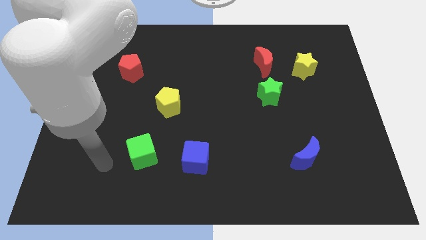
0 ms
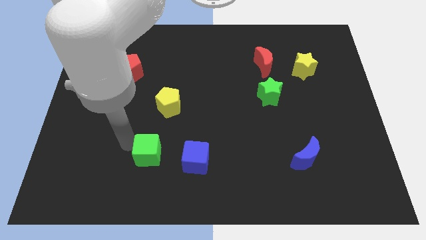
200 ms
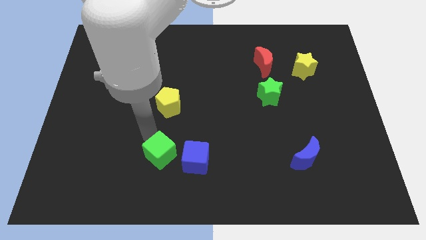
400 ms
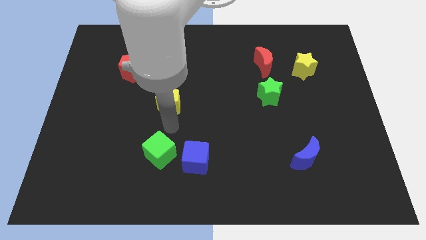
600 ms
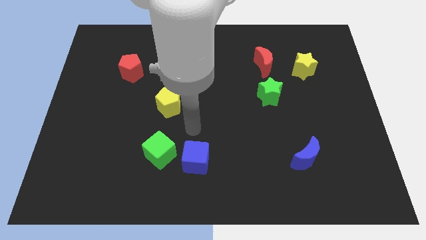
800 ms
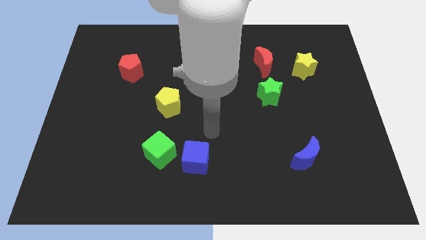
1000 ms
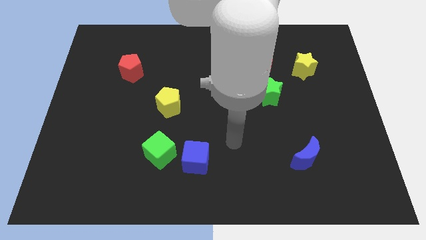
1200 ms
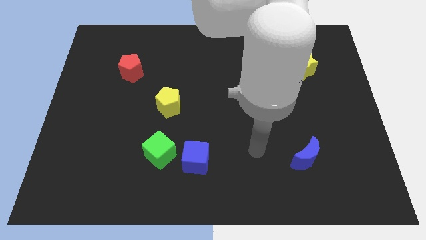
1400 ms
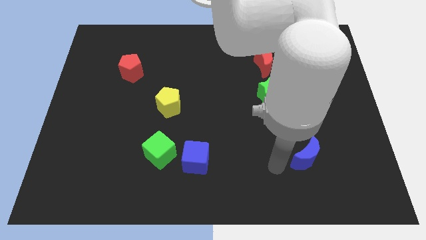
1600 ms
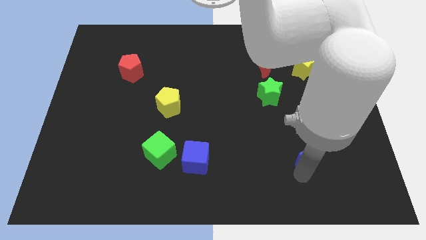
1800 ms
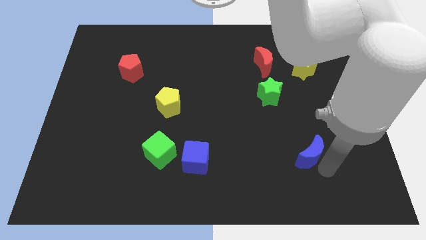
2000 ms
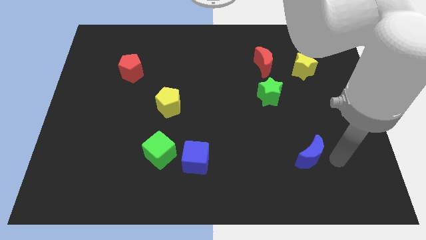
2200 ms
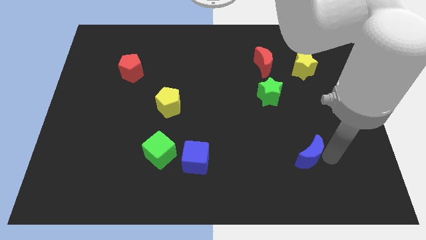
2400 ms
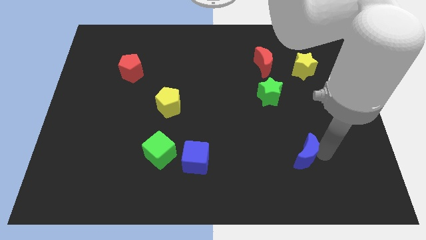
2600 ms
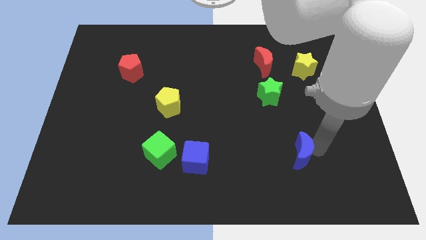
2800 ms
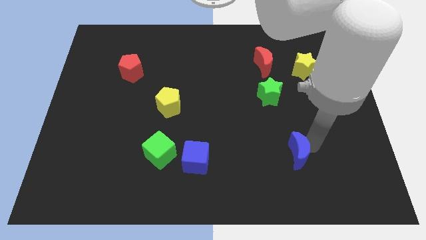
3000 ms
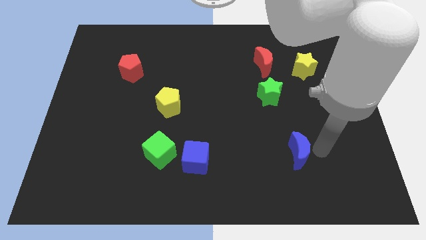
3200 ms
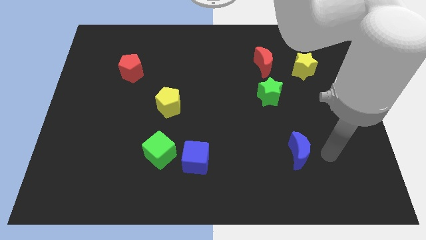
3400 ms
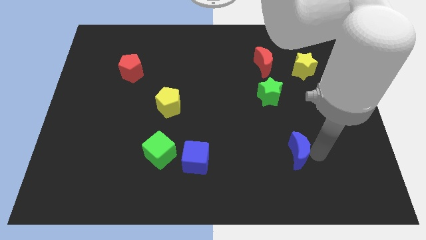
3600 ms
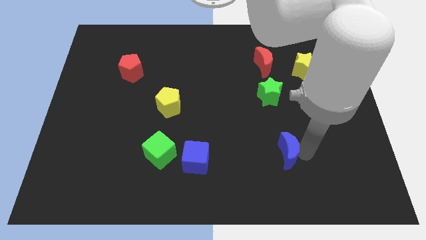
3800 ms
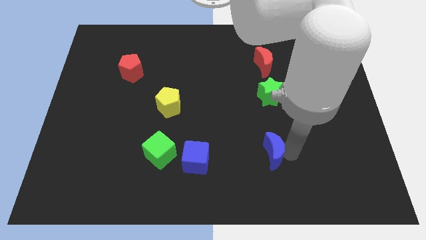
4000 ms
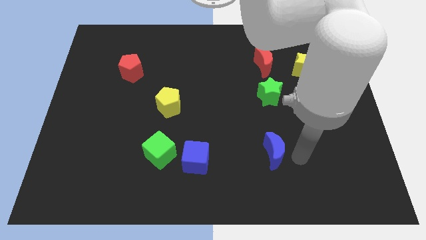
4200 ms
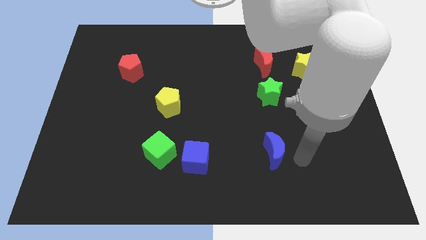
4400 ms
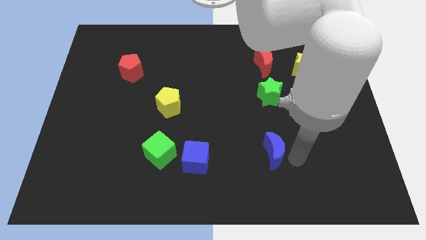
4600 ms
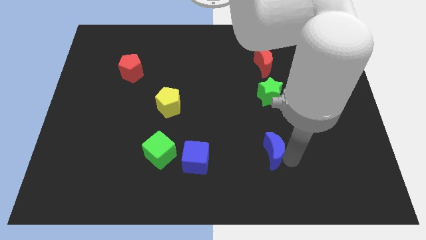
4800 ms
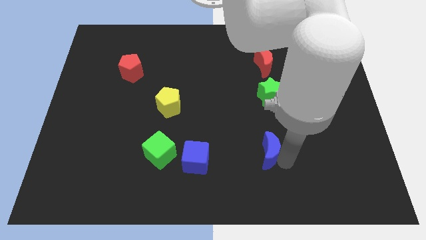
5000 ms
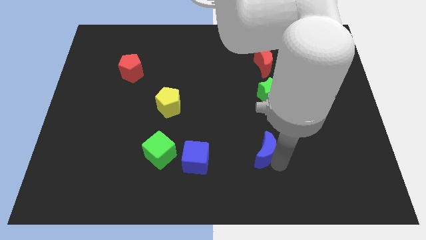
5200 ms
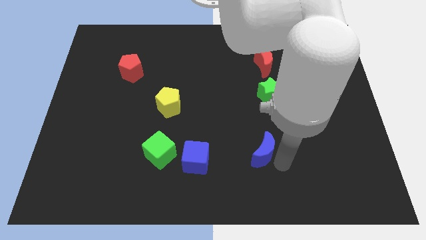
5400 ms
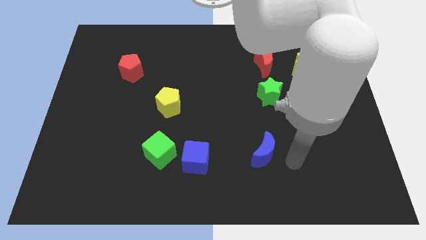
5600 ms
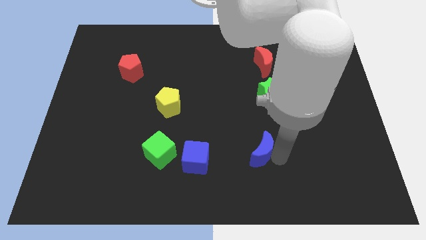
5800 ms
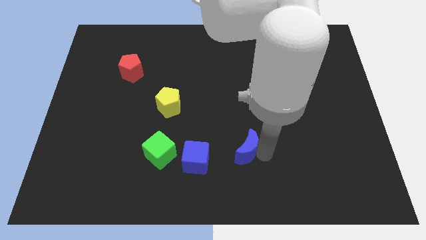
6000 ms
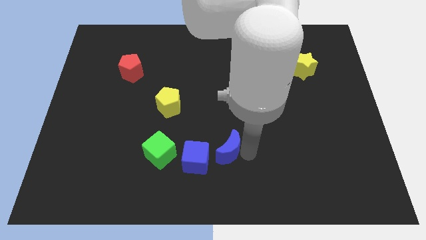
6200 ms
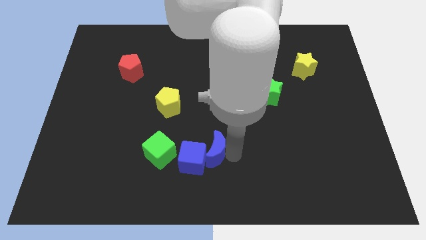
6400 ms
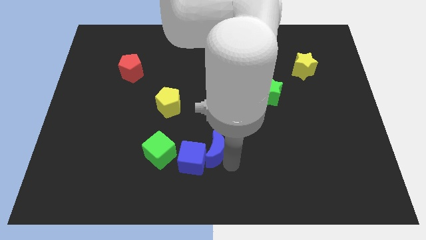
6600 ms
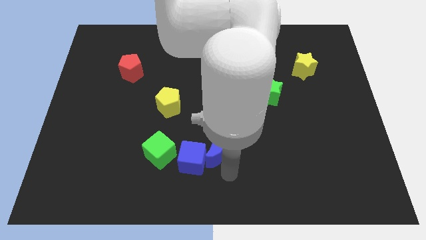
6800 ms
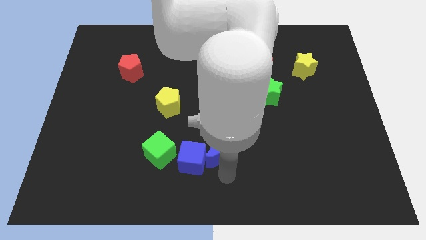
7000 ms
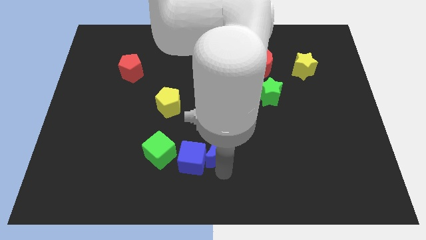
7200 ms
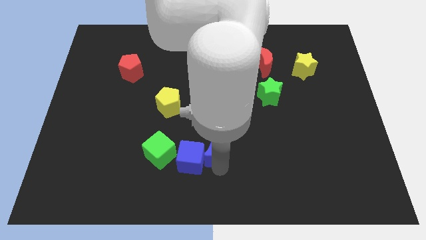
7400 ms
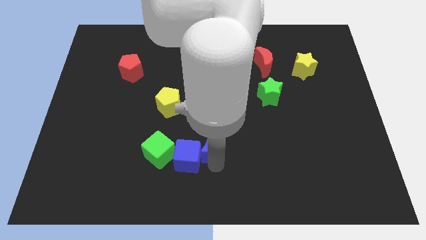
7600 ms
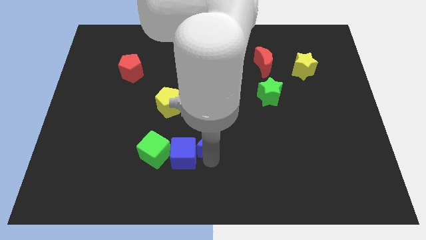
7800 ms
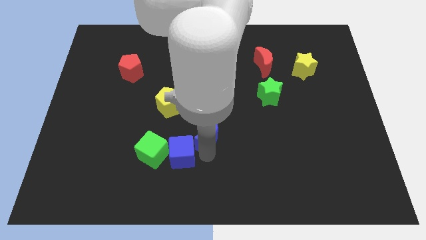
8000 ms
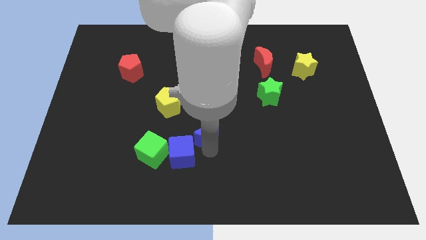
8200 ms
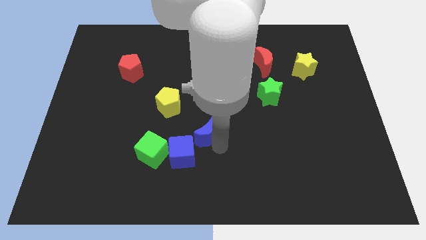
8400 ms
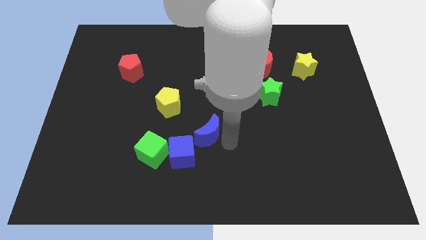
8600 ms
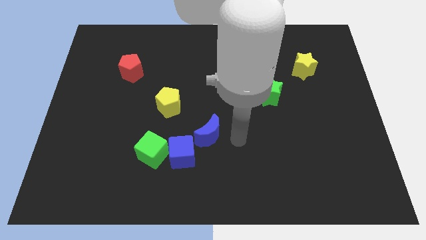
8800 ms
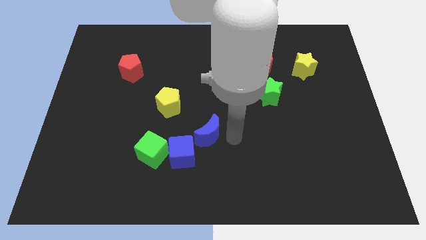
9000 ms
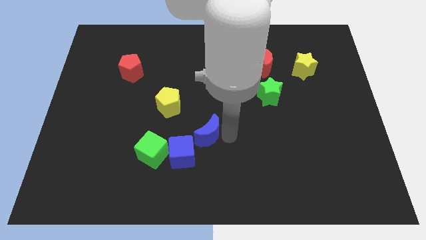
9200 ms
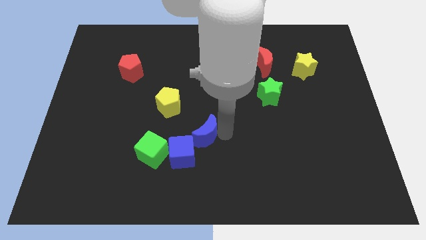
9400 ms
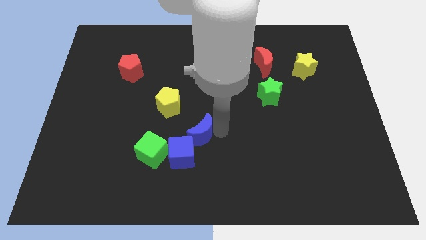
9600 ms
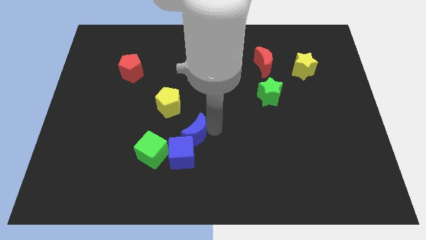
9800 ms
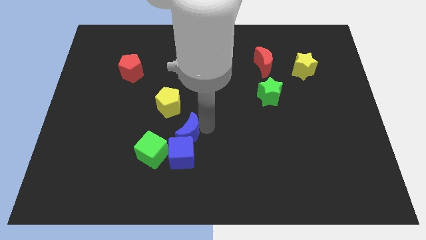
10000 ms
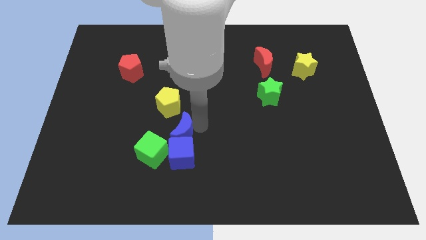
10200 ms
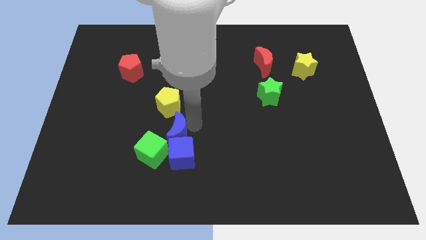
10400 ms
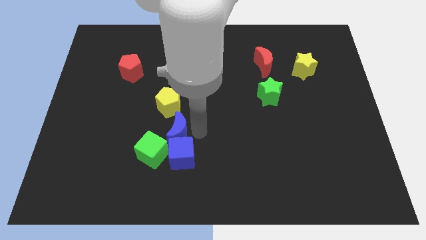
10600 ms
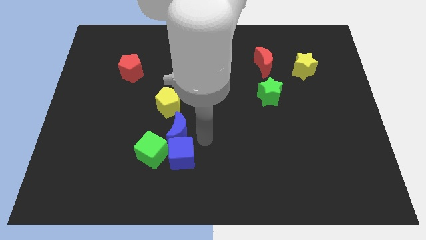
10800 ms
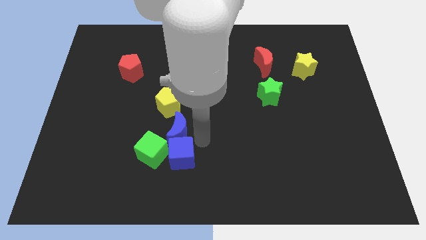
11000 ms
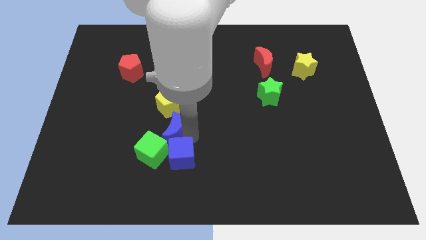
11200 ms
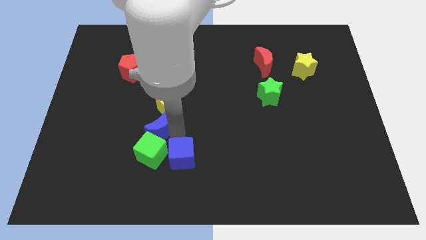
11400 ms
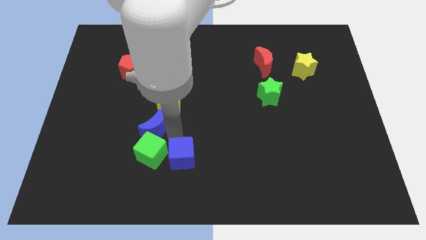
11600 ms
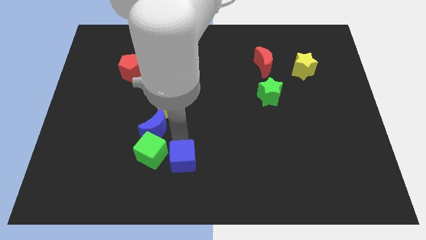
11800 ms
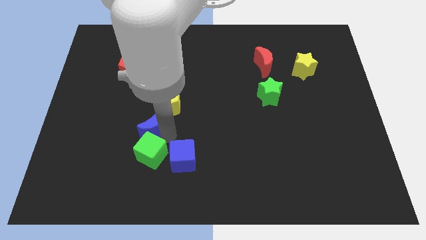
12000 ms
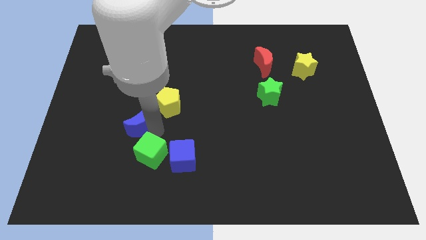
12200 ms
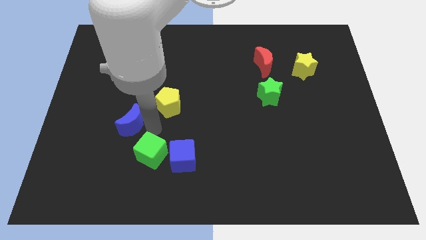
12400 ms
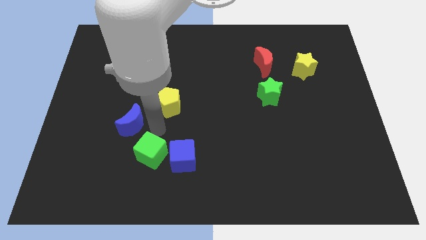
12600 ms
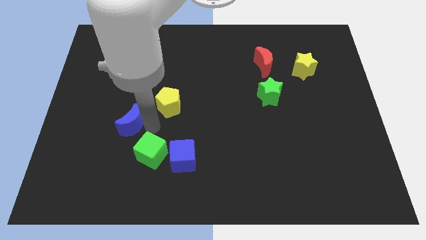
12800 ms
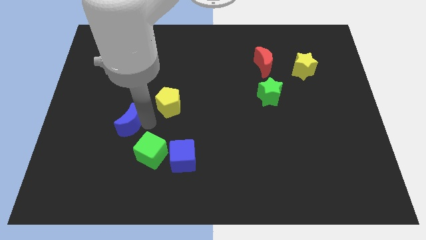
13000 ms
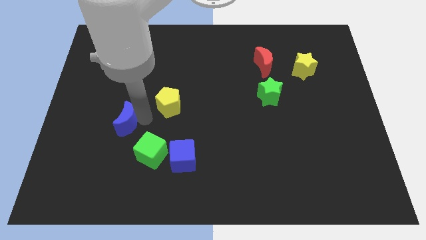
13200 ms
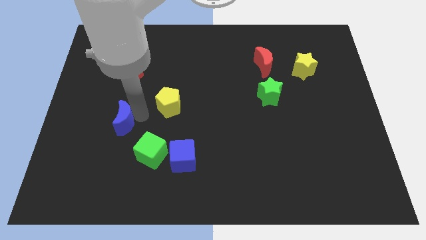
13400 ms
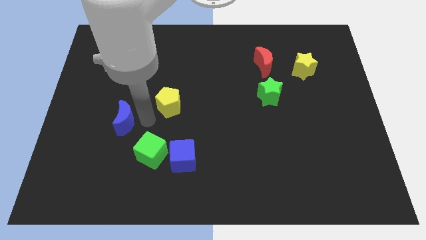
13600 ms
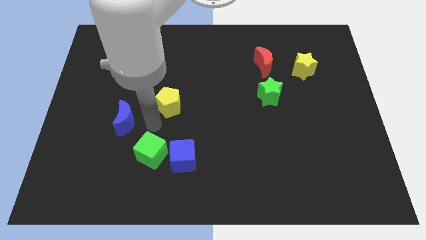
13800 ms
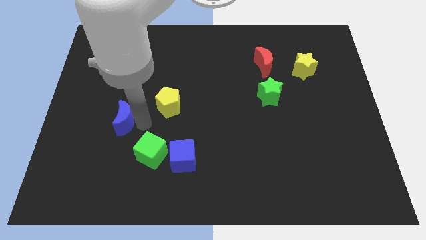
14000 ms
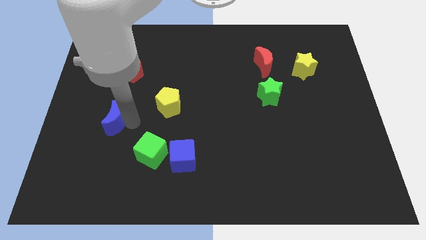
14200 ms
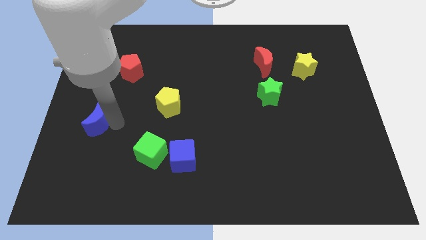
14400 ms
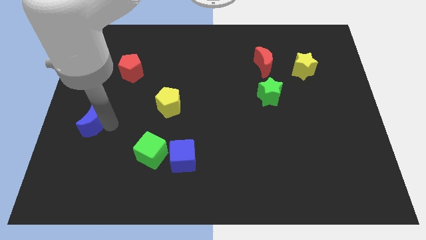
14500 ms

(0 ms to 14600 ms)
push the blue moon to the left side
